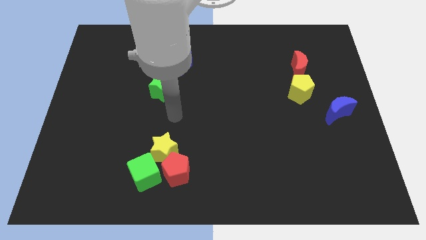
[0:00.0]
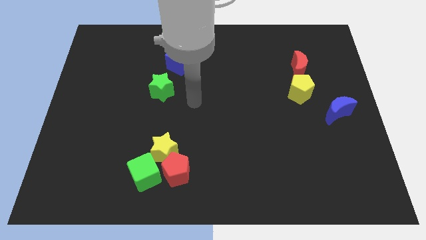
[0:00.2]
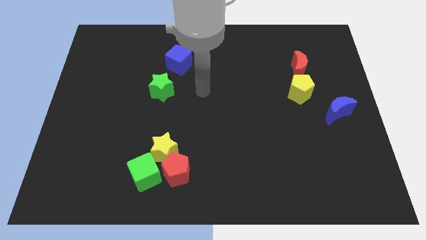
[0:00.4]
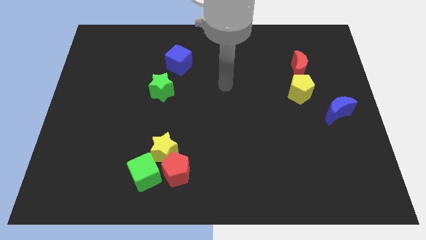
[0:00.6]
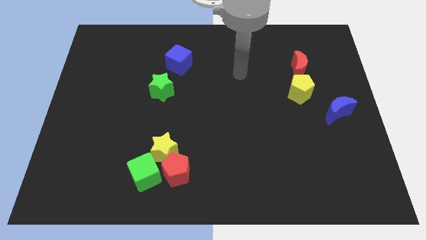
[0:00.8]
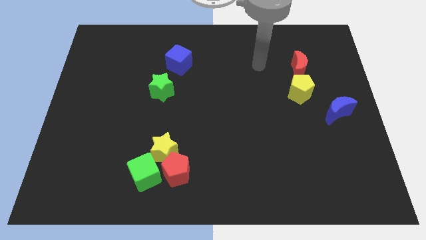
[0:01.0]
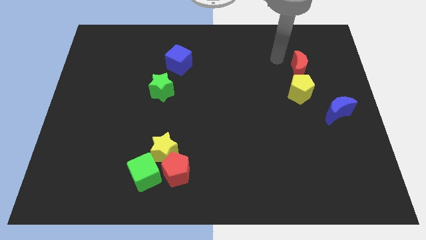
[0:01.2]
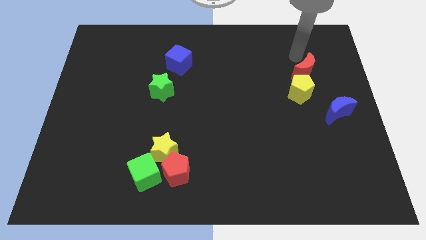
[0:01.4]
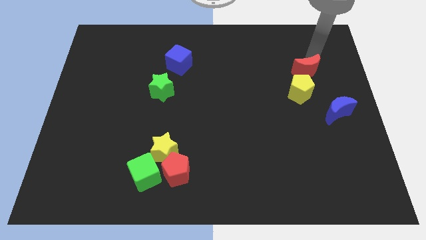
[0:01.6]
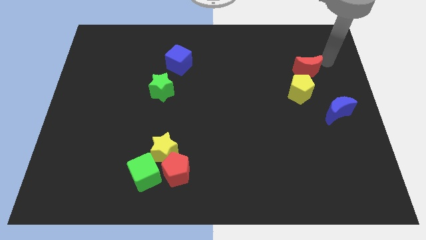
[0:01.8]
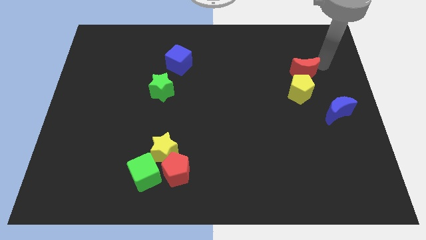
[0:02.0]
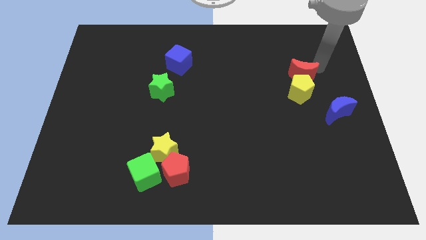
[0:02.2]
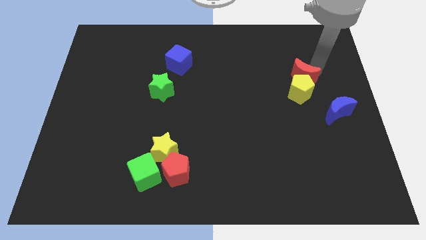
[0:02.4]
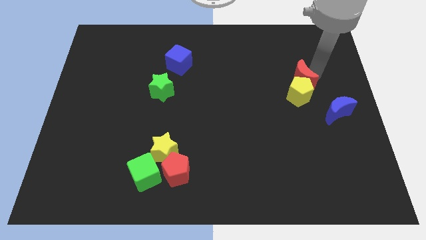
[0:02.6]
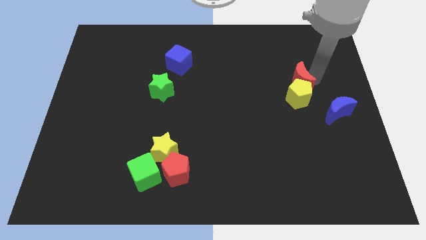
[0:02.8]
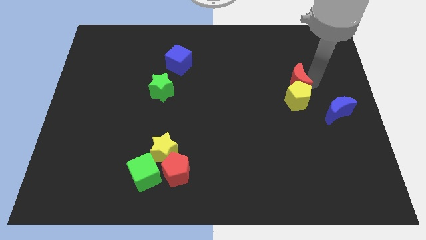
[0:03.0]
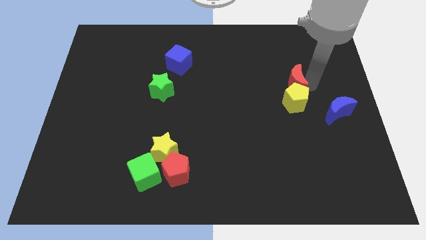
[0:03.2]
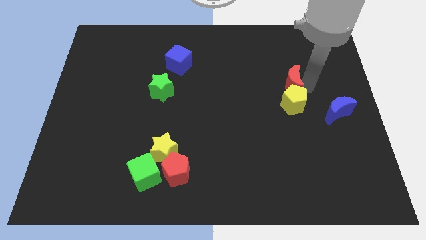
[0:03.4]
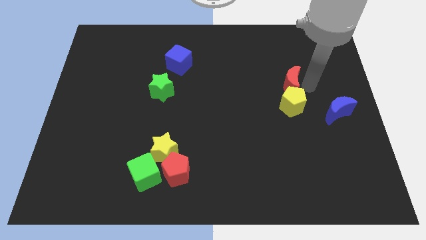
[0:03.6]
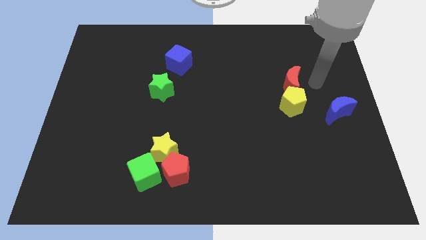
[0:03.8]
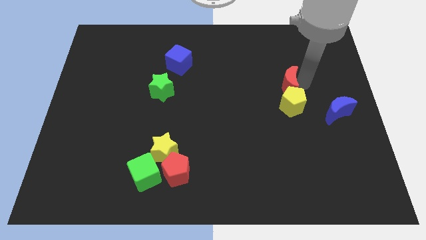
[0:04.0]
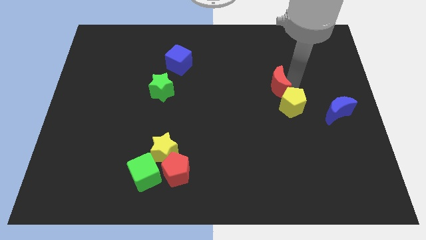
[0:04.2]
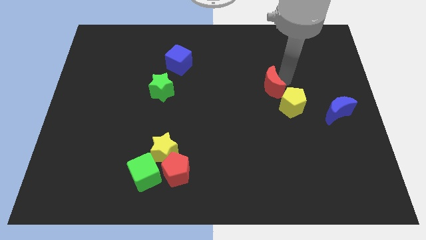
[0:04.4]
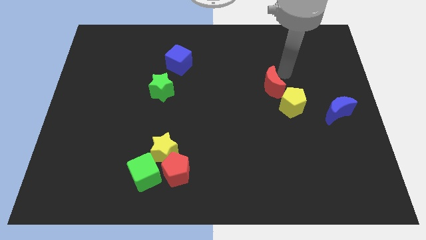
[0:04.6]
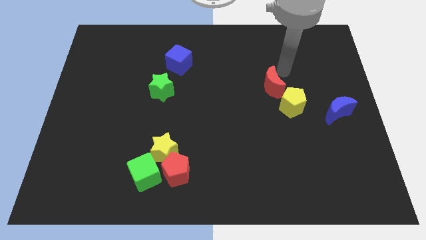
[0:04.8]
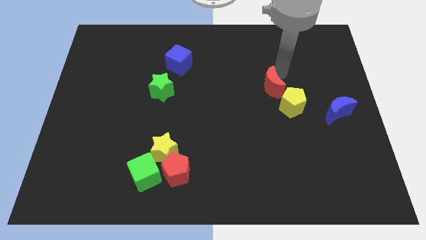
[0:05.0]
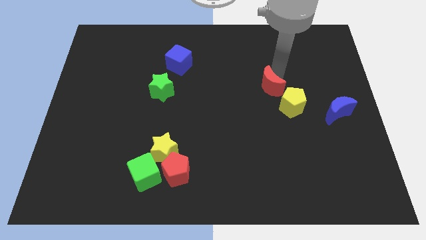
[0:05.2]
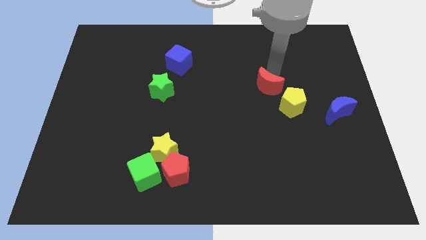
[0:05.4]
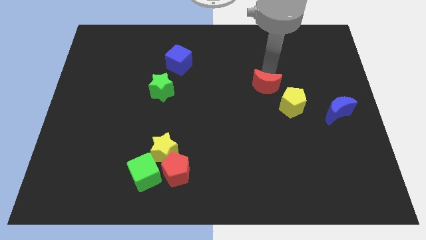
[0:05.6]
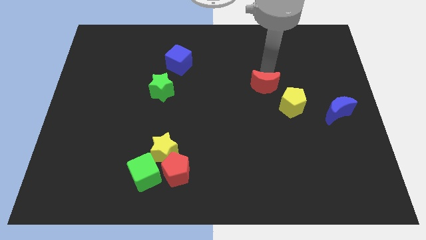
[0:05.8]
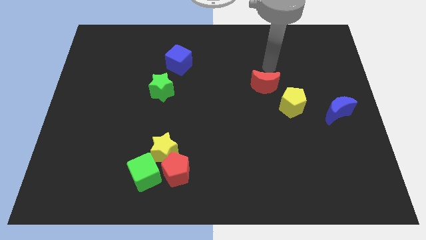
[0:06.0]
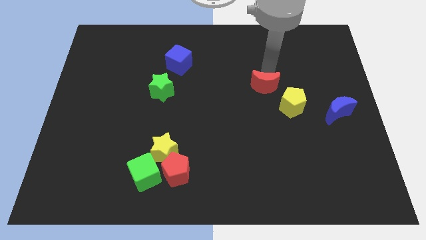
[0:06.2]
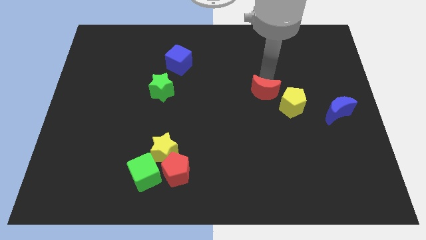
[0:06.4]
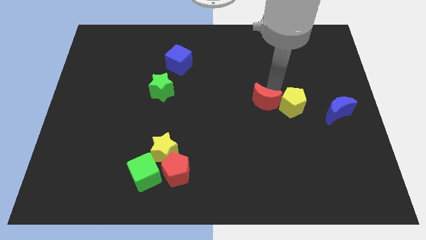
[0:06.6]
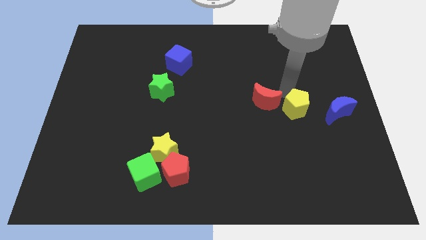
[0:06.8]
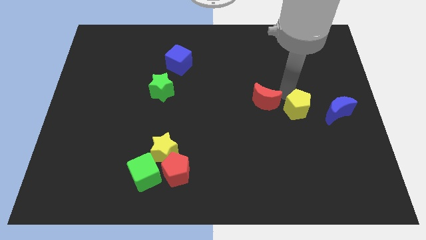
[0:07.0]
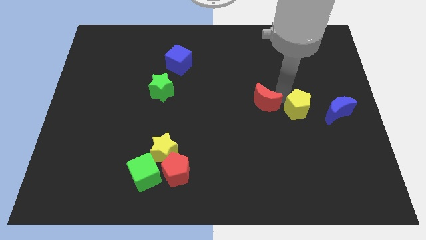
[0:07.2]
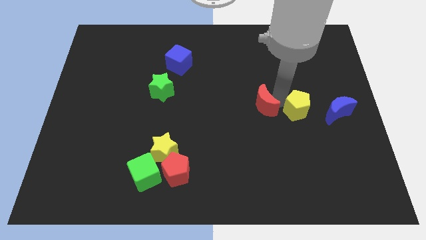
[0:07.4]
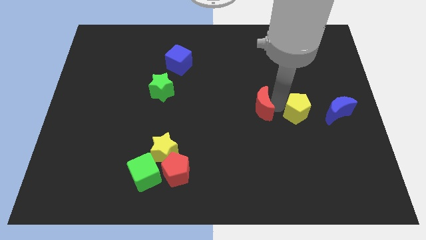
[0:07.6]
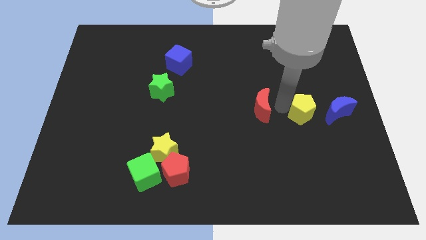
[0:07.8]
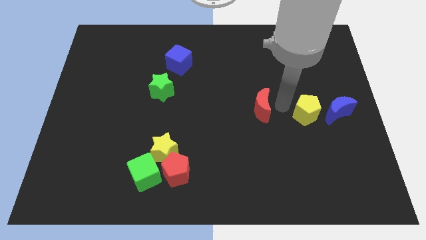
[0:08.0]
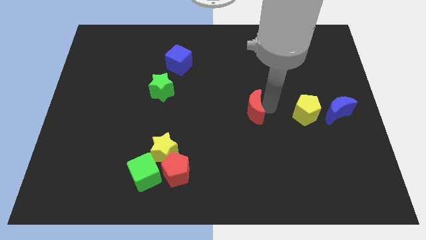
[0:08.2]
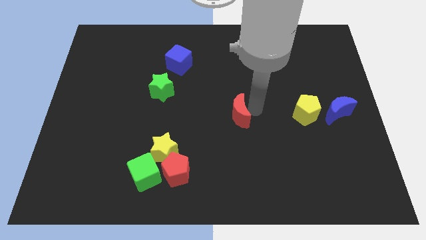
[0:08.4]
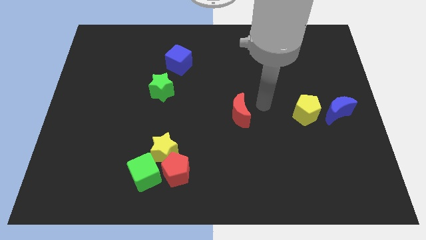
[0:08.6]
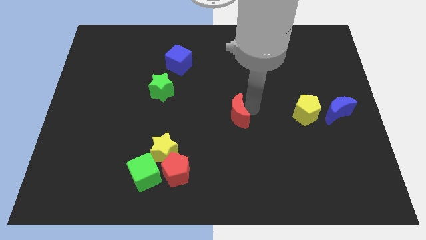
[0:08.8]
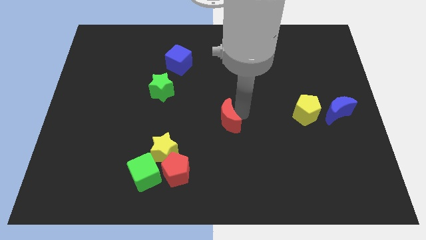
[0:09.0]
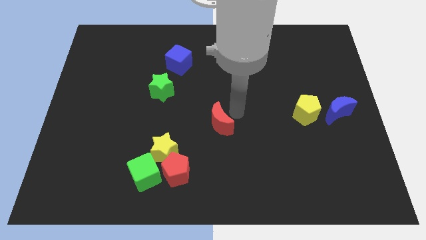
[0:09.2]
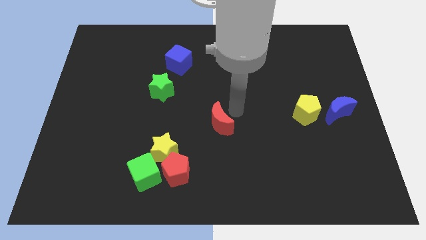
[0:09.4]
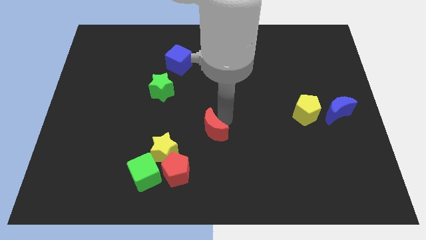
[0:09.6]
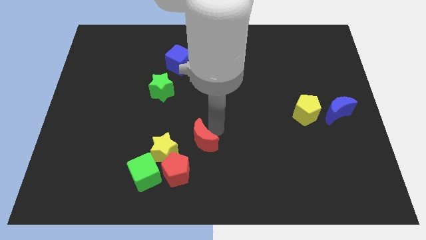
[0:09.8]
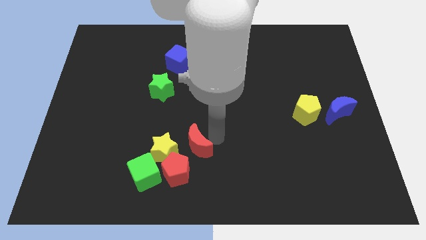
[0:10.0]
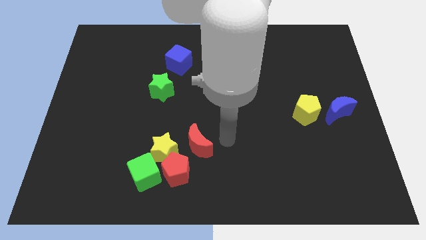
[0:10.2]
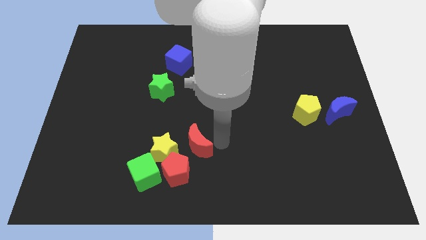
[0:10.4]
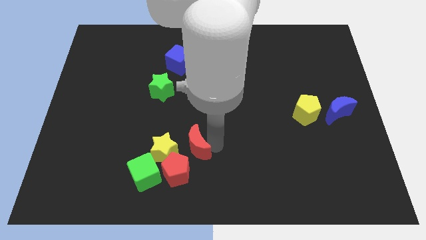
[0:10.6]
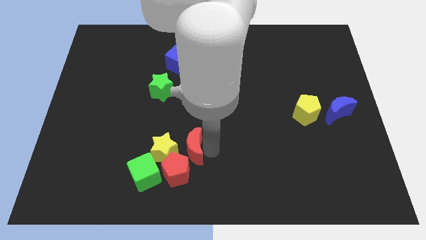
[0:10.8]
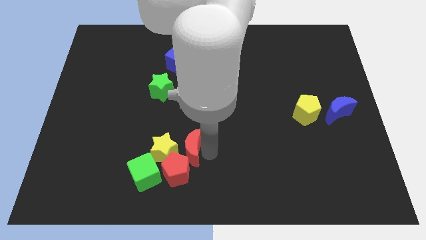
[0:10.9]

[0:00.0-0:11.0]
push the red moon to the yellow star

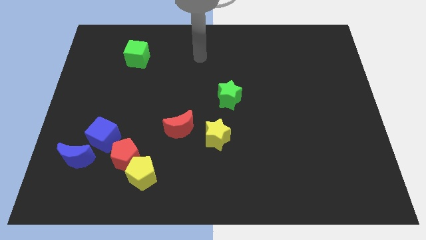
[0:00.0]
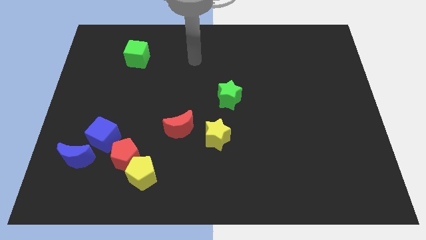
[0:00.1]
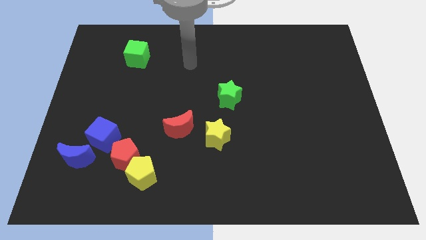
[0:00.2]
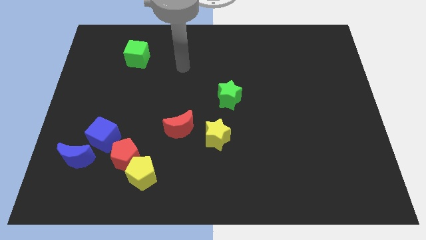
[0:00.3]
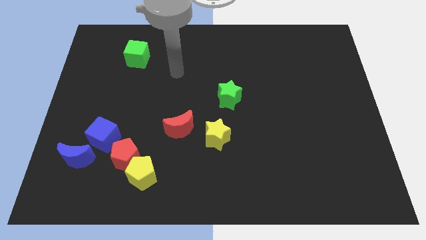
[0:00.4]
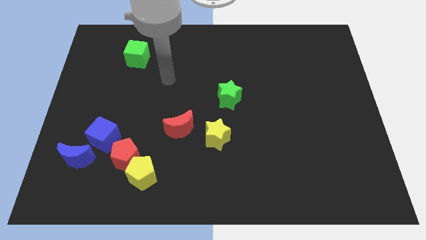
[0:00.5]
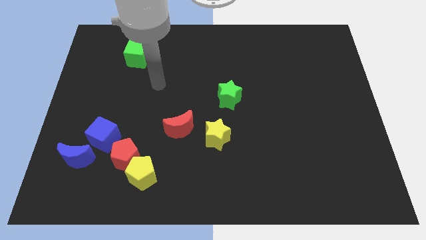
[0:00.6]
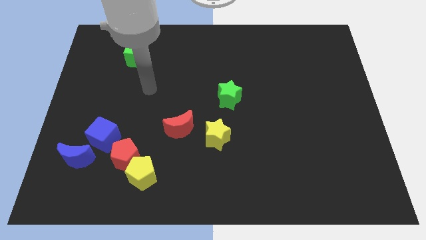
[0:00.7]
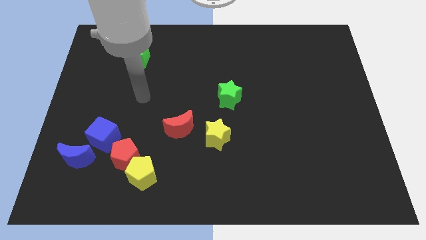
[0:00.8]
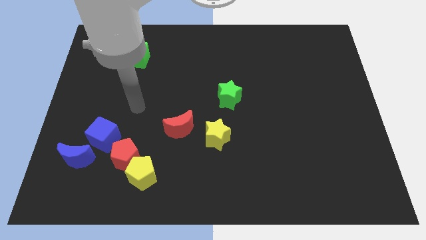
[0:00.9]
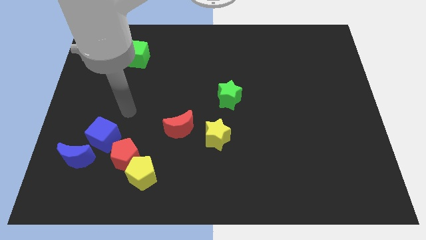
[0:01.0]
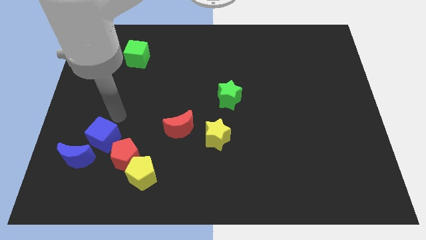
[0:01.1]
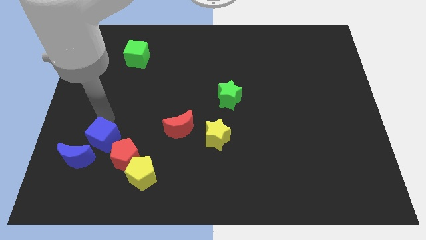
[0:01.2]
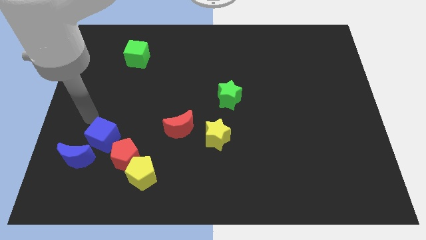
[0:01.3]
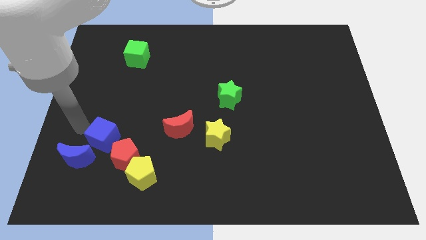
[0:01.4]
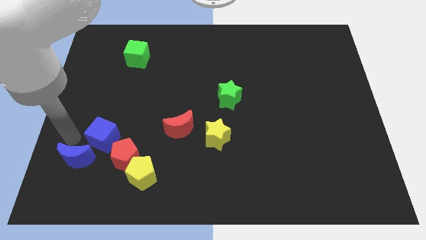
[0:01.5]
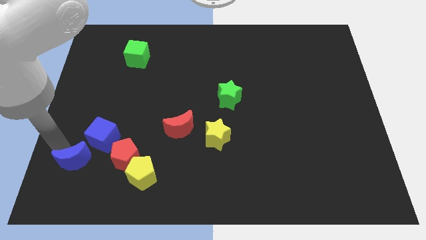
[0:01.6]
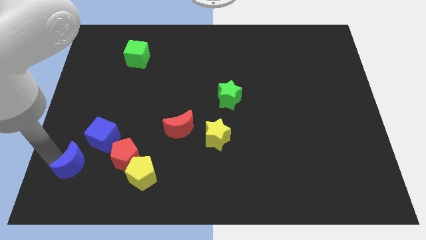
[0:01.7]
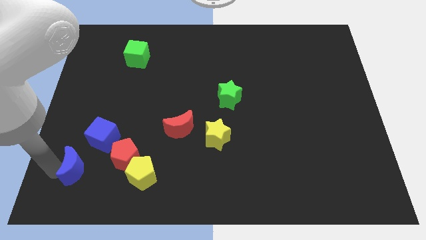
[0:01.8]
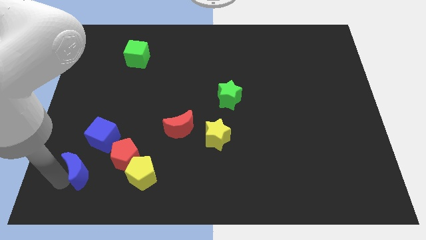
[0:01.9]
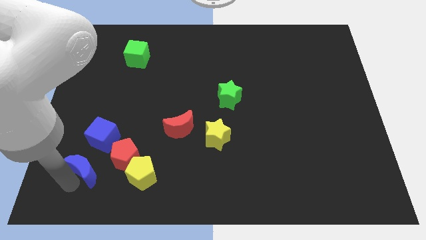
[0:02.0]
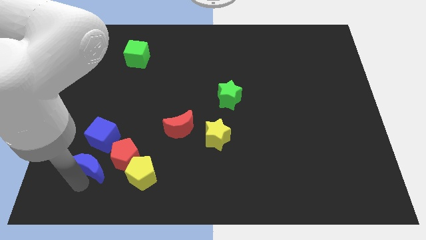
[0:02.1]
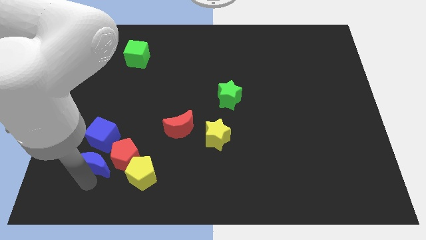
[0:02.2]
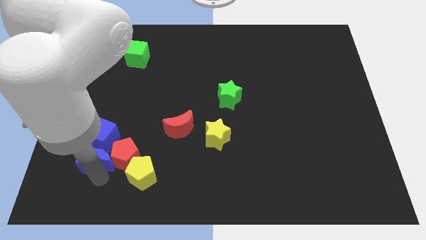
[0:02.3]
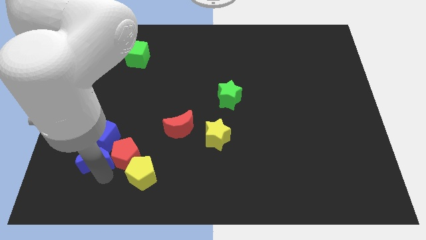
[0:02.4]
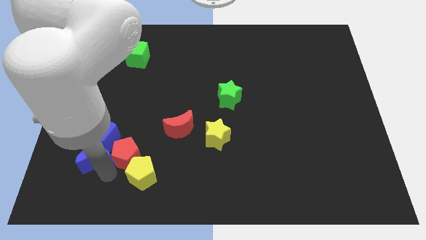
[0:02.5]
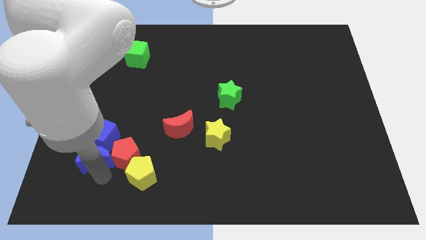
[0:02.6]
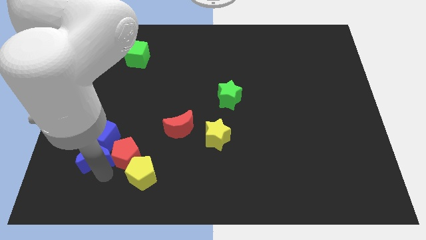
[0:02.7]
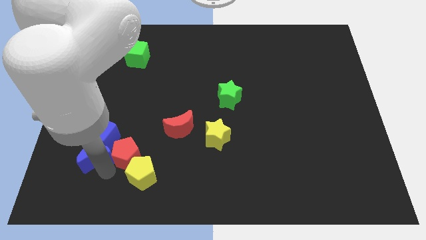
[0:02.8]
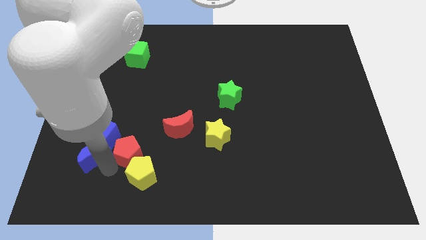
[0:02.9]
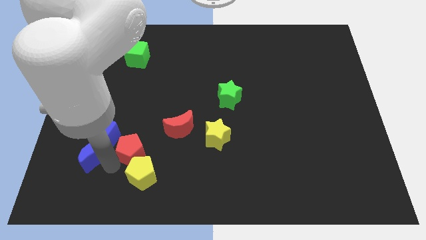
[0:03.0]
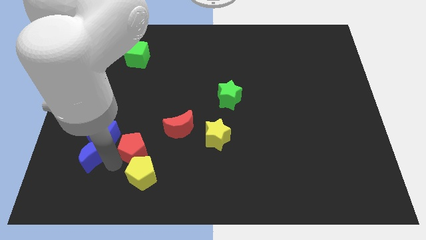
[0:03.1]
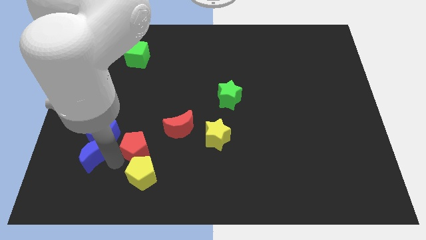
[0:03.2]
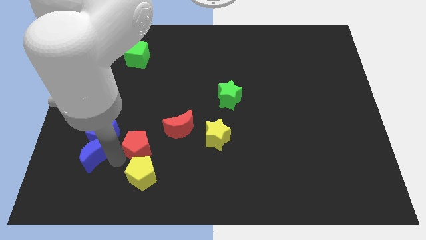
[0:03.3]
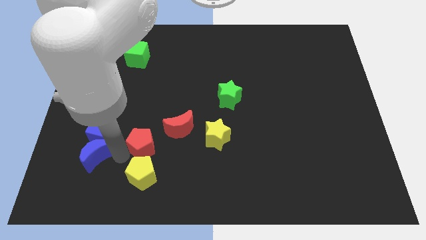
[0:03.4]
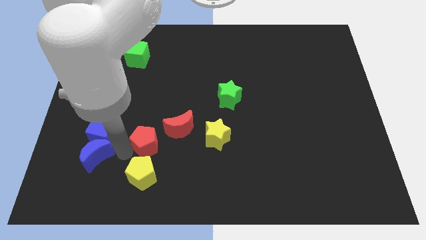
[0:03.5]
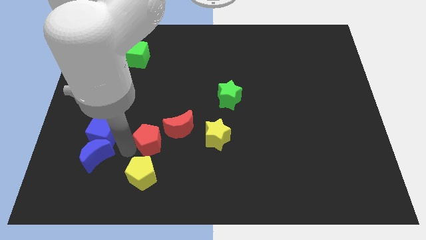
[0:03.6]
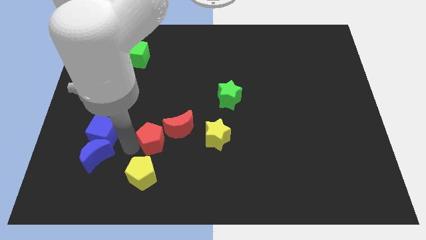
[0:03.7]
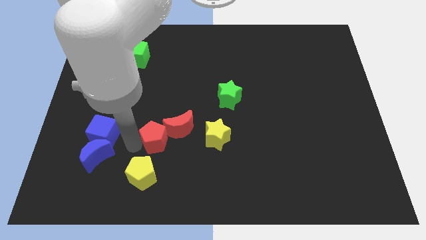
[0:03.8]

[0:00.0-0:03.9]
push the red pentagon next to the red moon
